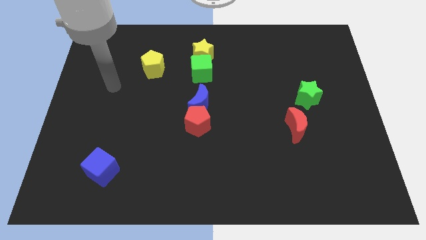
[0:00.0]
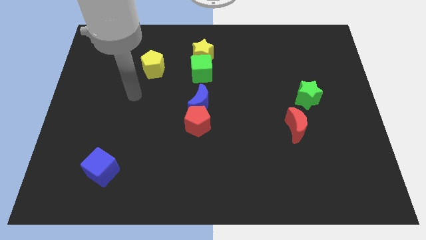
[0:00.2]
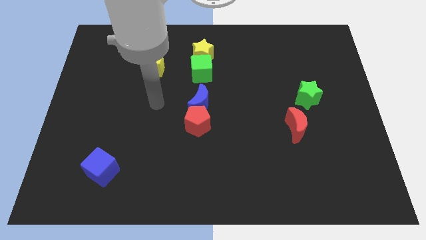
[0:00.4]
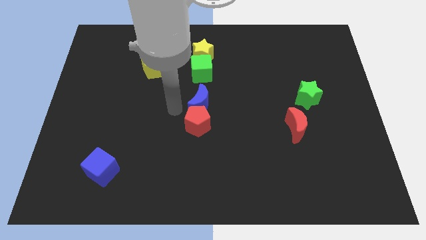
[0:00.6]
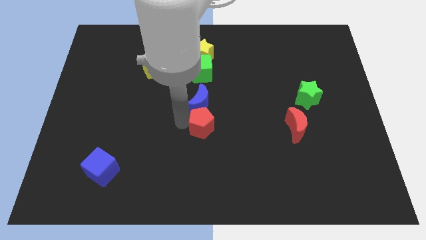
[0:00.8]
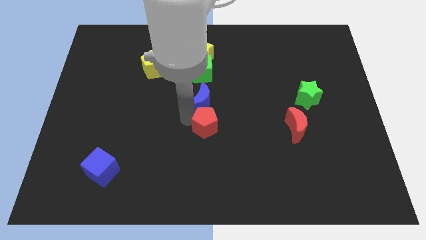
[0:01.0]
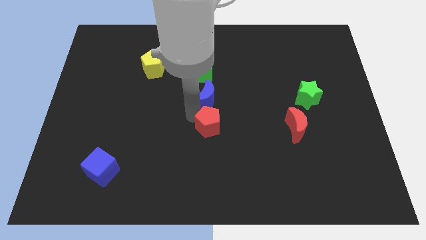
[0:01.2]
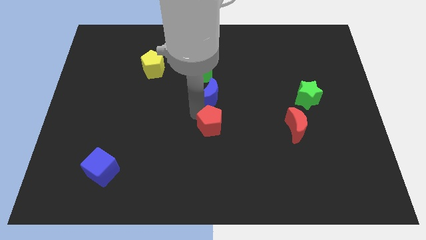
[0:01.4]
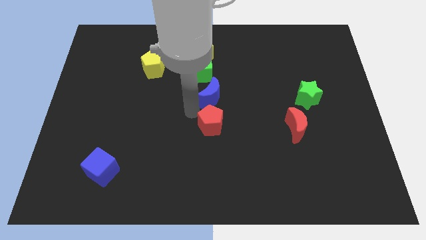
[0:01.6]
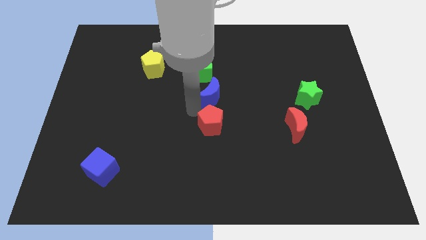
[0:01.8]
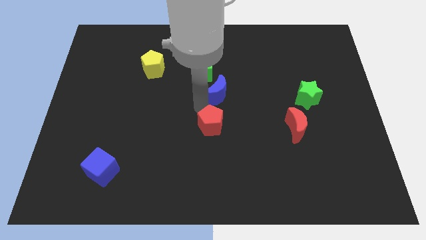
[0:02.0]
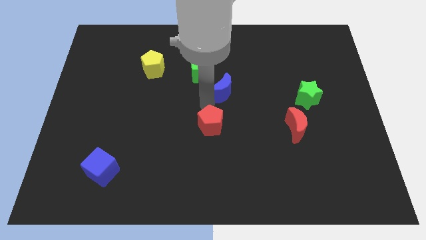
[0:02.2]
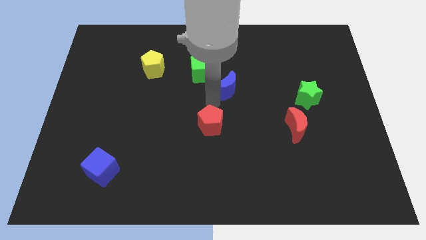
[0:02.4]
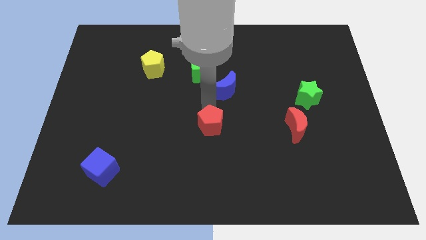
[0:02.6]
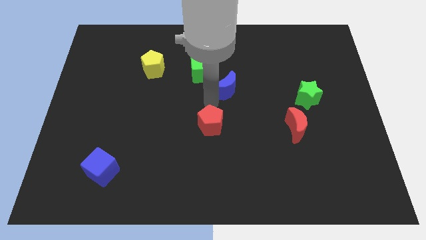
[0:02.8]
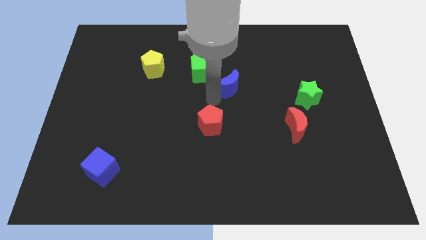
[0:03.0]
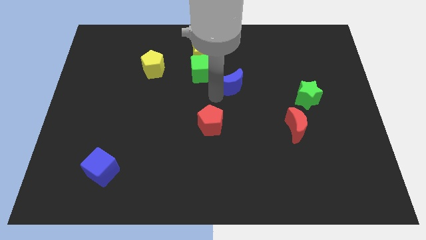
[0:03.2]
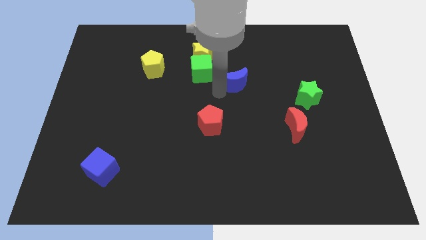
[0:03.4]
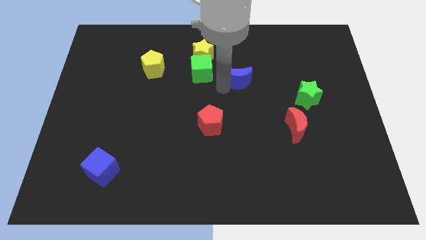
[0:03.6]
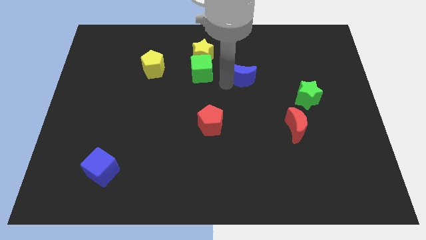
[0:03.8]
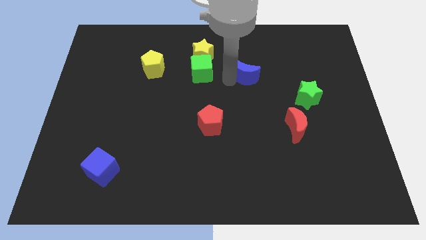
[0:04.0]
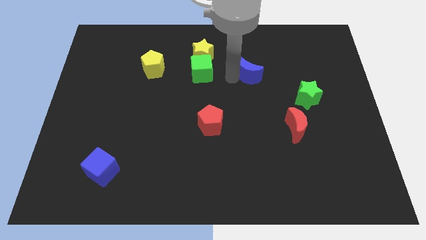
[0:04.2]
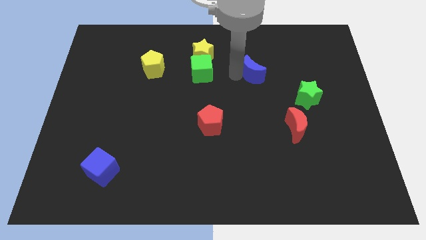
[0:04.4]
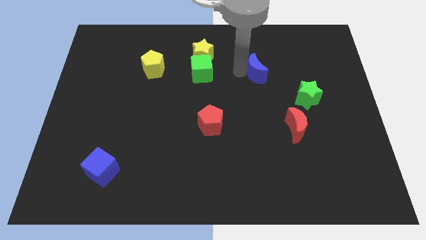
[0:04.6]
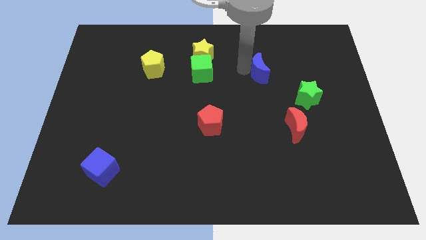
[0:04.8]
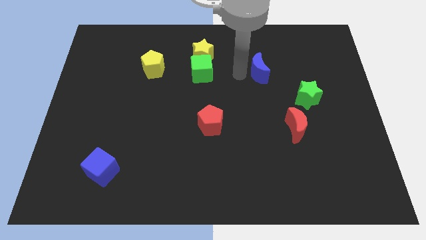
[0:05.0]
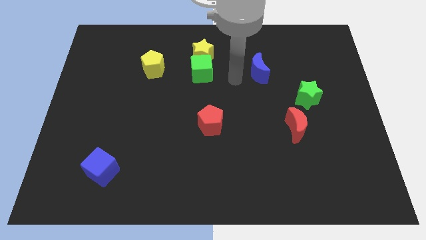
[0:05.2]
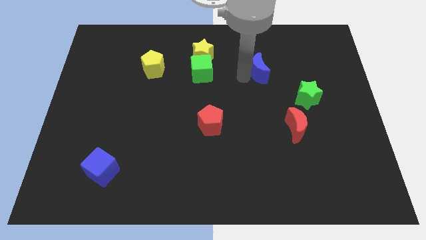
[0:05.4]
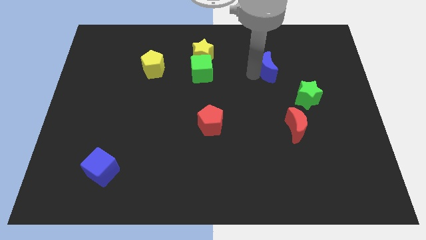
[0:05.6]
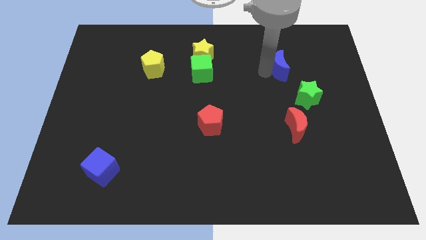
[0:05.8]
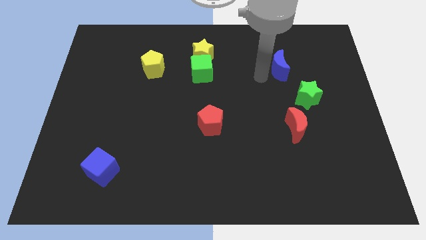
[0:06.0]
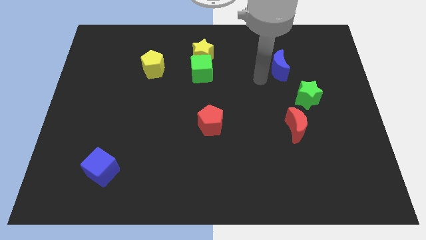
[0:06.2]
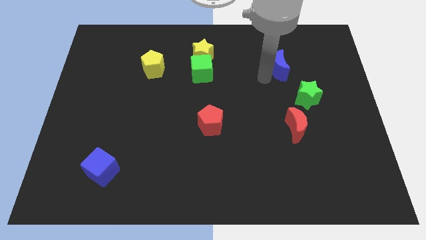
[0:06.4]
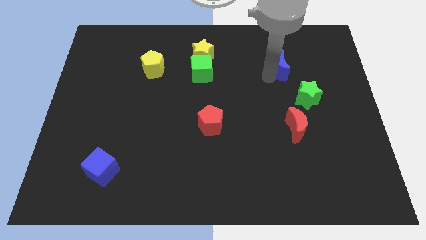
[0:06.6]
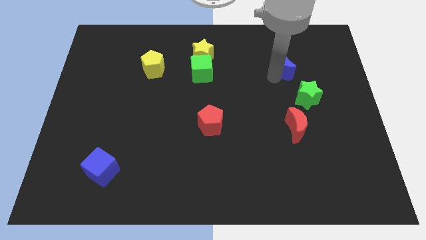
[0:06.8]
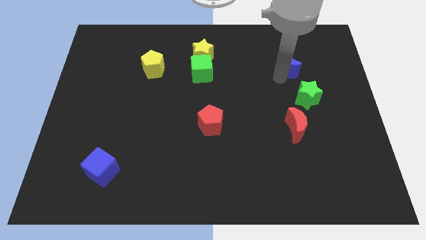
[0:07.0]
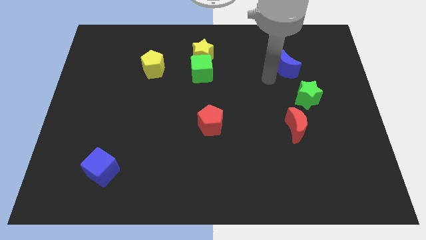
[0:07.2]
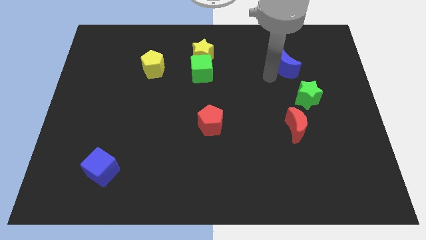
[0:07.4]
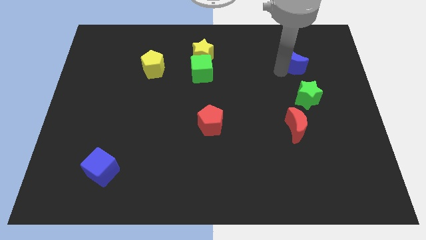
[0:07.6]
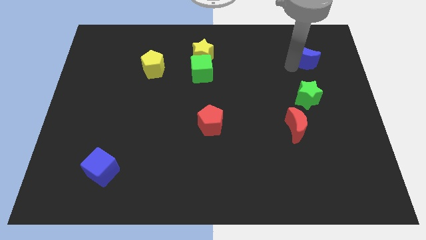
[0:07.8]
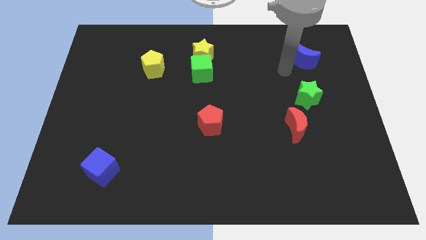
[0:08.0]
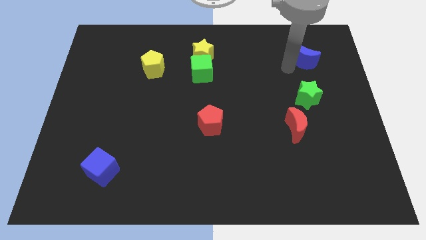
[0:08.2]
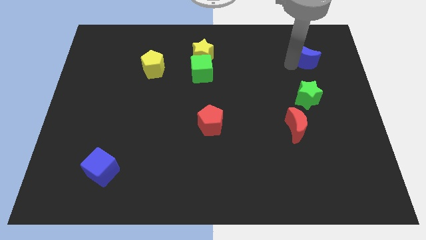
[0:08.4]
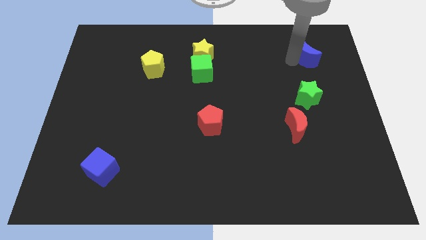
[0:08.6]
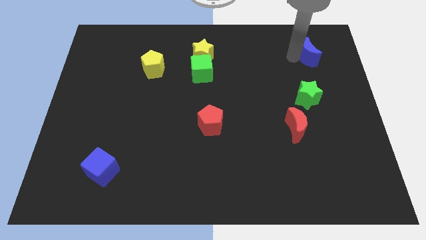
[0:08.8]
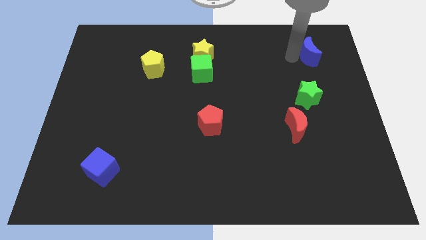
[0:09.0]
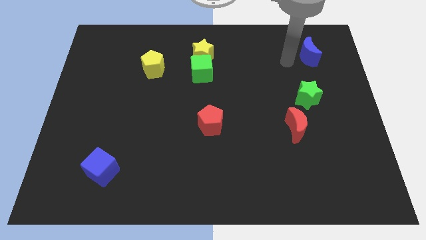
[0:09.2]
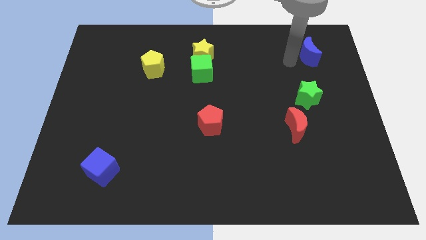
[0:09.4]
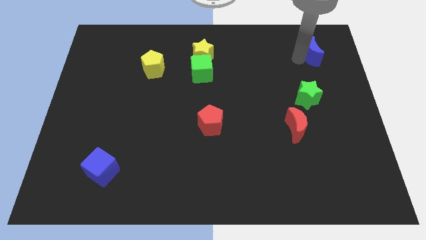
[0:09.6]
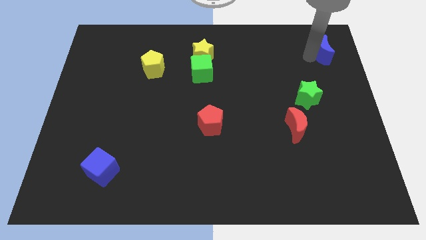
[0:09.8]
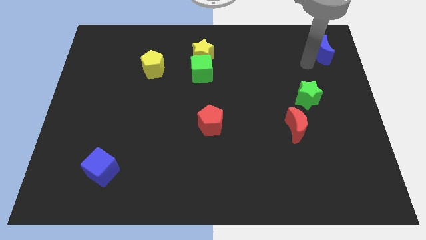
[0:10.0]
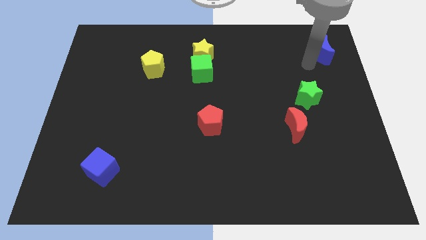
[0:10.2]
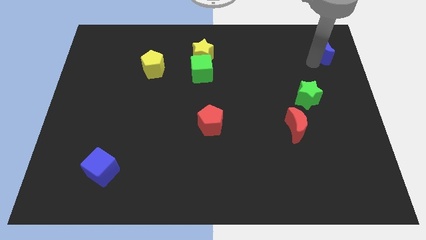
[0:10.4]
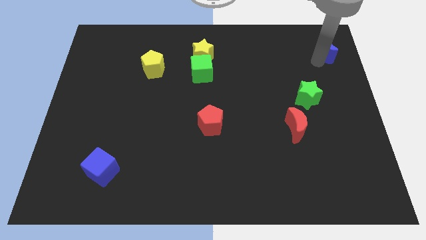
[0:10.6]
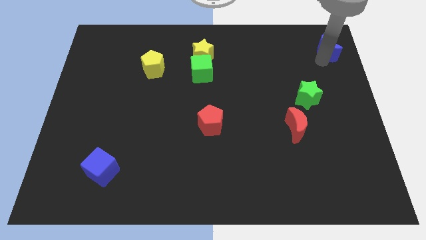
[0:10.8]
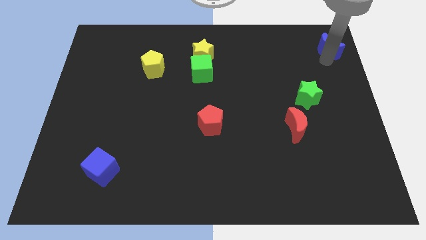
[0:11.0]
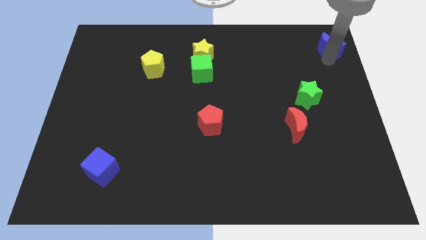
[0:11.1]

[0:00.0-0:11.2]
push the blue moon to the upper right corner

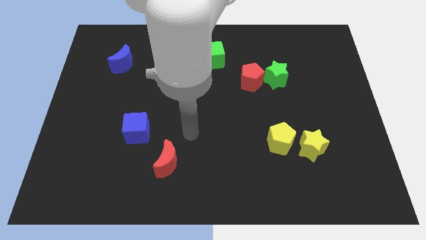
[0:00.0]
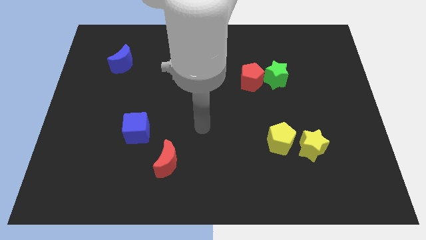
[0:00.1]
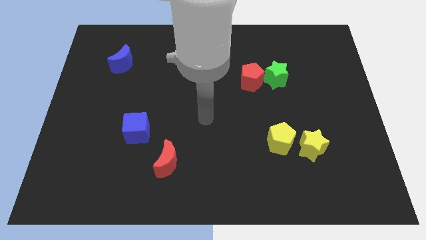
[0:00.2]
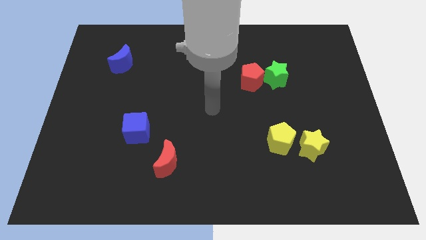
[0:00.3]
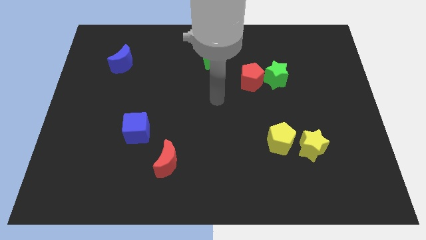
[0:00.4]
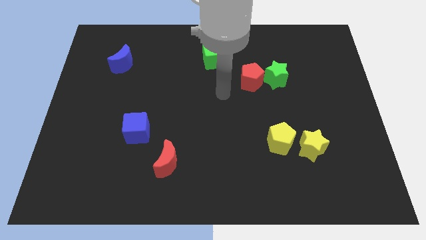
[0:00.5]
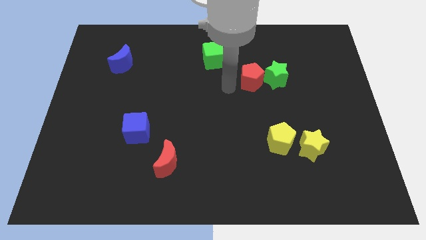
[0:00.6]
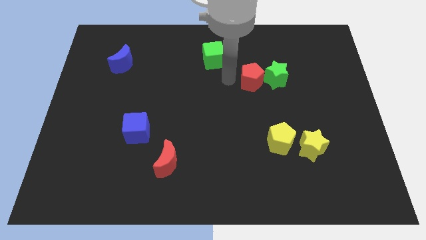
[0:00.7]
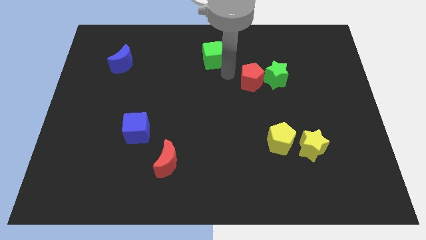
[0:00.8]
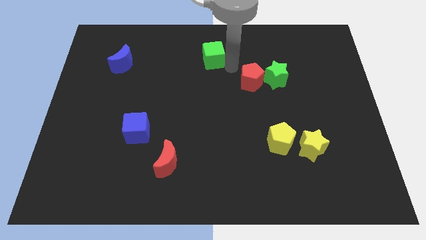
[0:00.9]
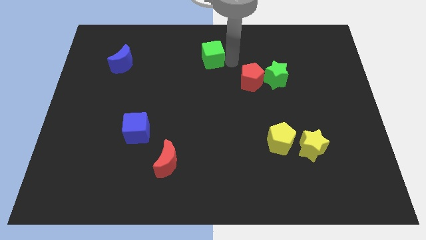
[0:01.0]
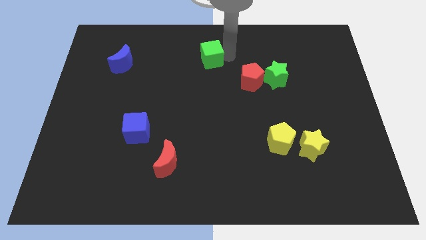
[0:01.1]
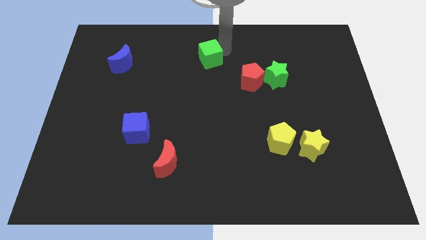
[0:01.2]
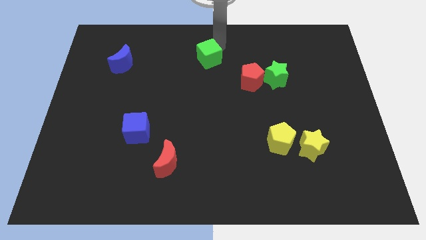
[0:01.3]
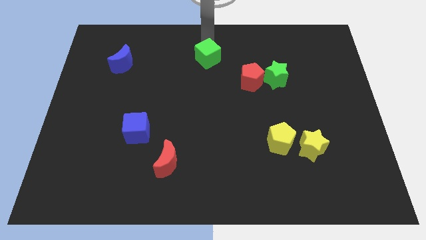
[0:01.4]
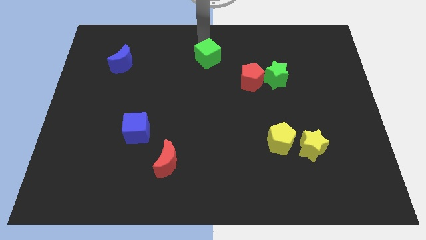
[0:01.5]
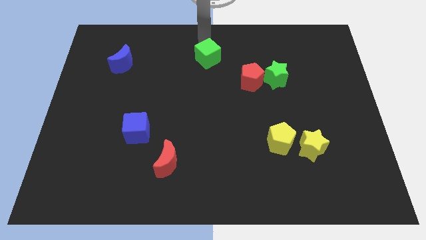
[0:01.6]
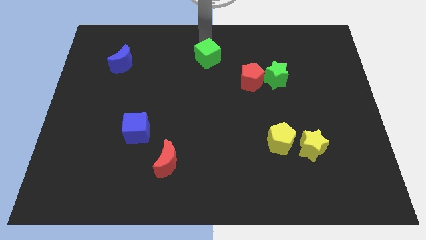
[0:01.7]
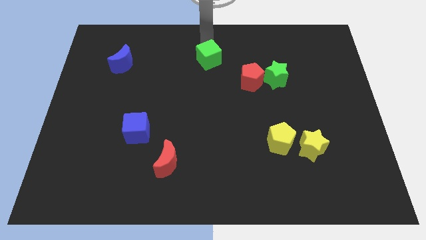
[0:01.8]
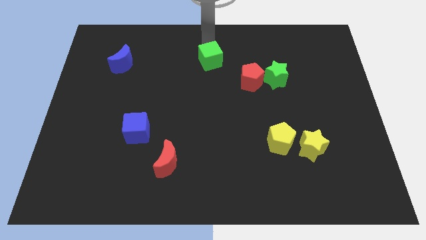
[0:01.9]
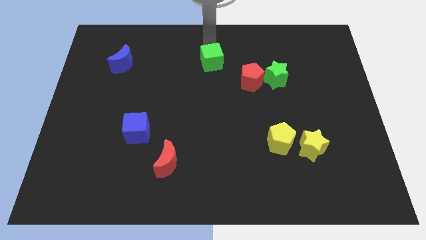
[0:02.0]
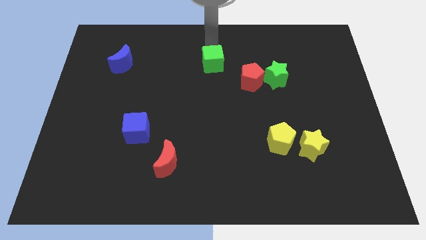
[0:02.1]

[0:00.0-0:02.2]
slide the green cube to the center
